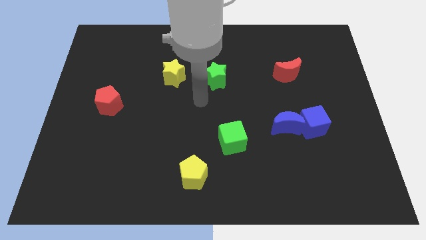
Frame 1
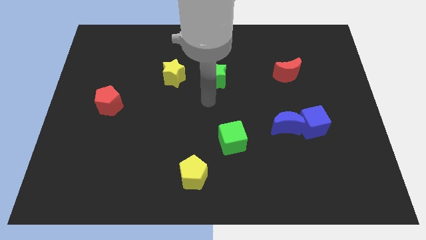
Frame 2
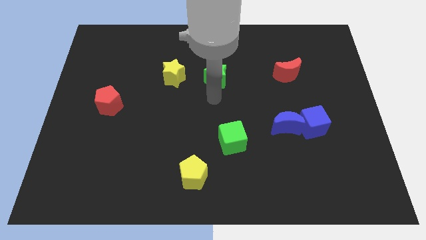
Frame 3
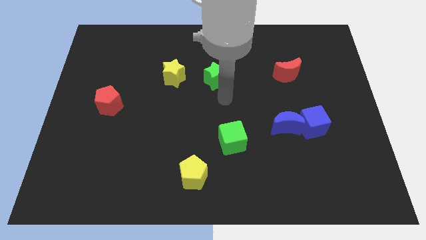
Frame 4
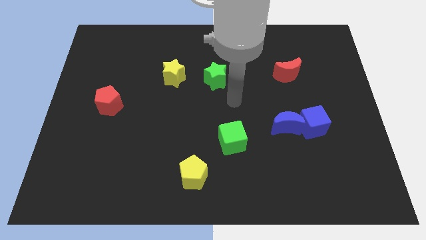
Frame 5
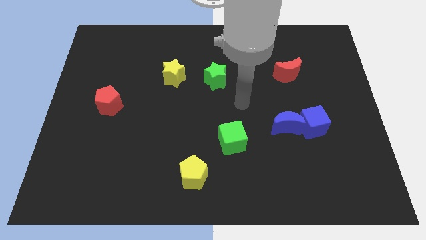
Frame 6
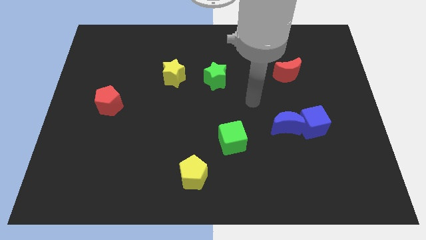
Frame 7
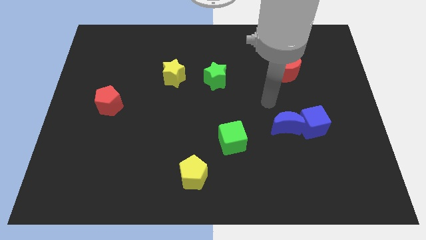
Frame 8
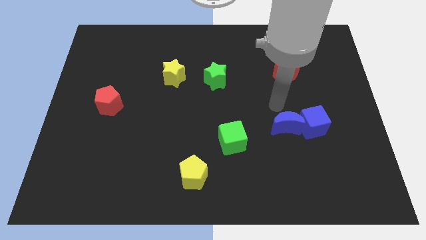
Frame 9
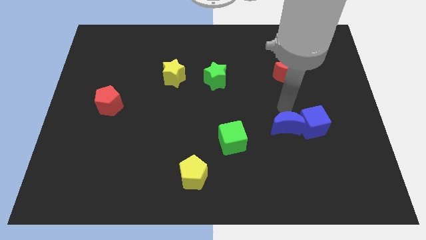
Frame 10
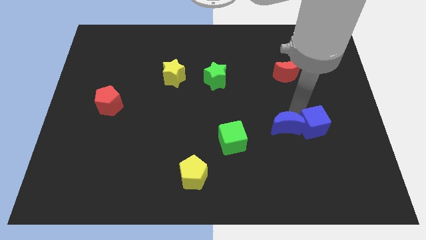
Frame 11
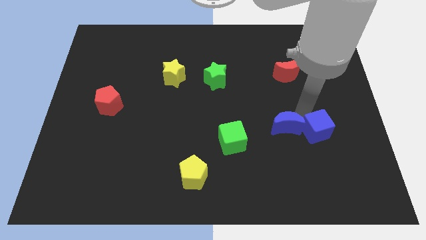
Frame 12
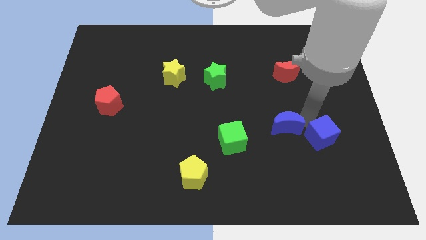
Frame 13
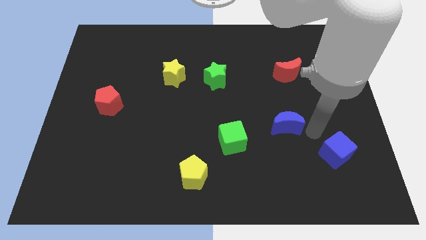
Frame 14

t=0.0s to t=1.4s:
pull the blue moon apart from the blue cube

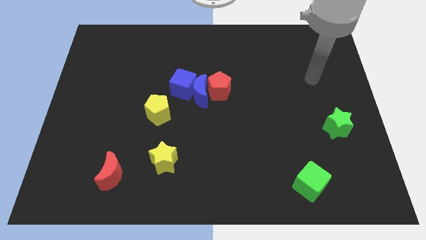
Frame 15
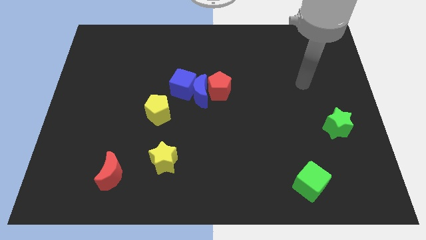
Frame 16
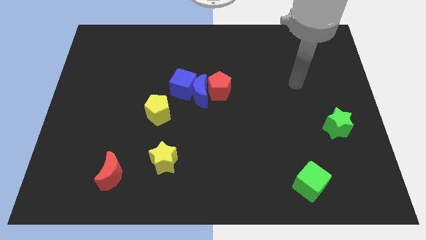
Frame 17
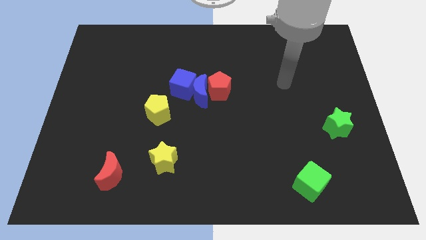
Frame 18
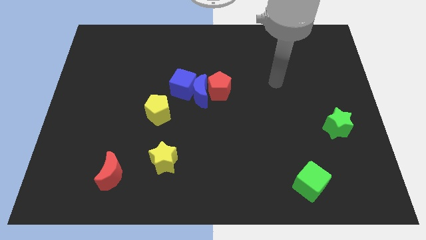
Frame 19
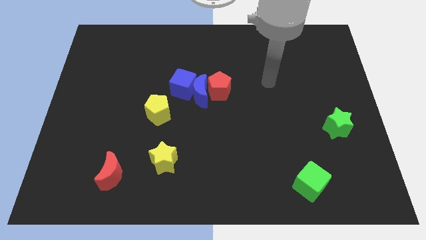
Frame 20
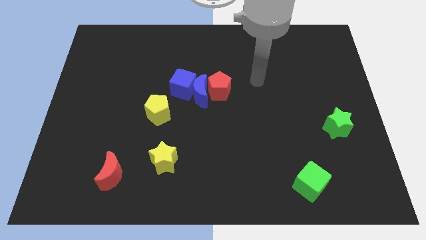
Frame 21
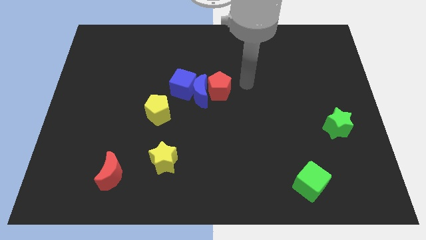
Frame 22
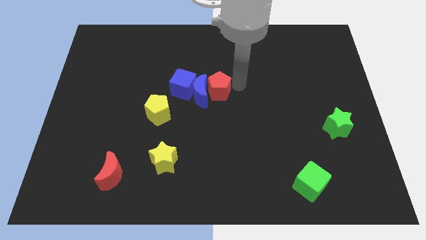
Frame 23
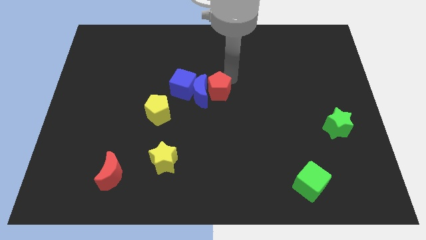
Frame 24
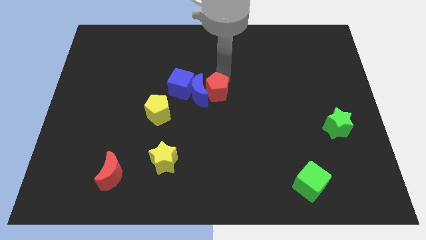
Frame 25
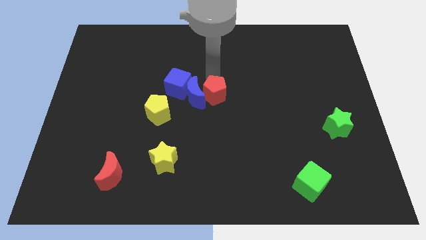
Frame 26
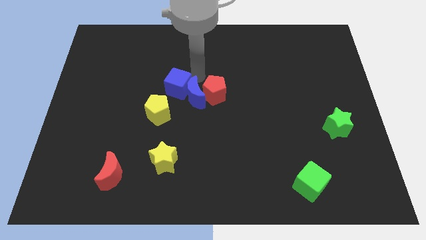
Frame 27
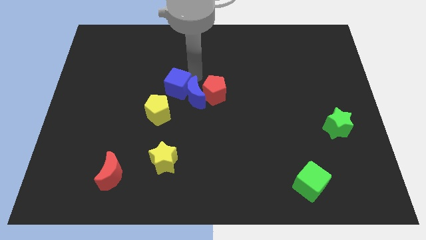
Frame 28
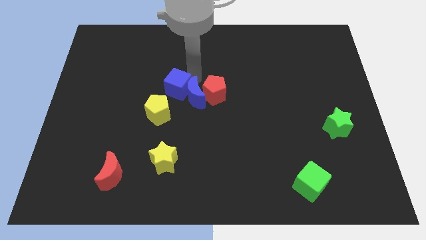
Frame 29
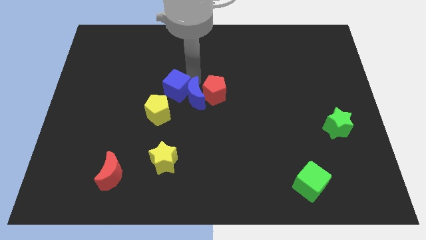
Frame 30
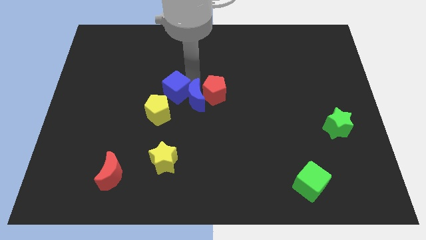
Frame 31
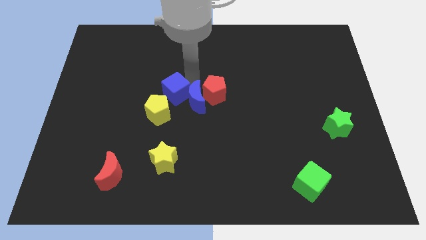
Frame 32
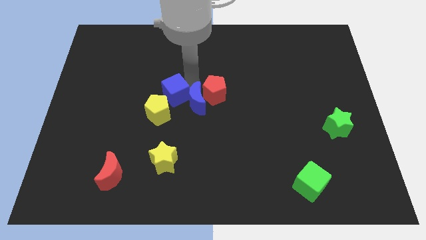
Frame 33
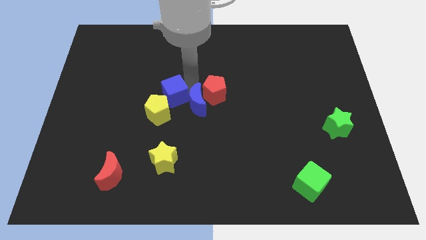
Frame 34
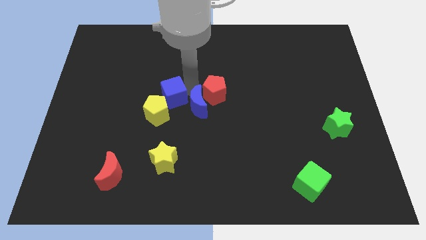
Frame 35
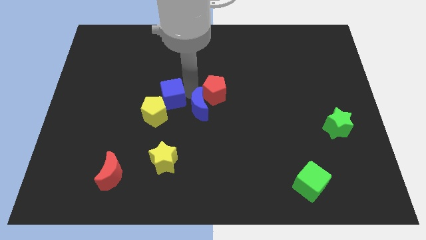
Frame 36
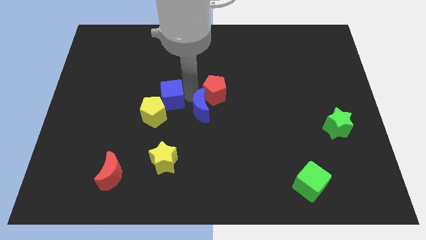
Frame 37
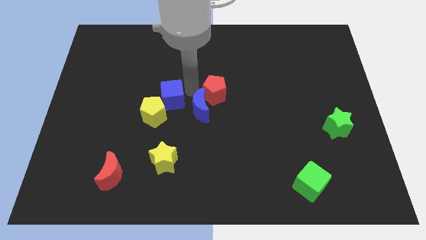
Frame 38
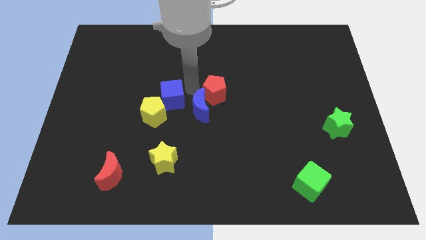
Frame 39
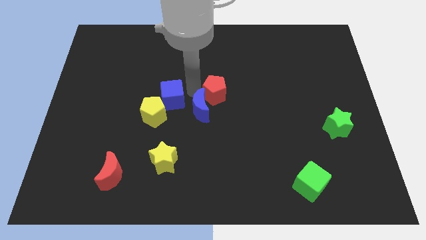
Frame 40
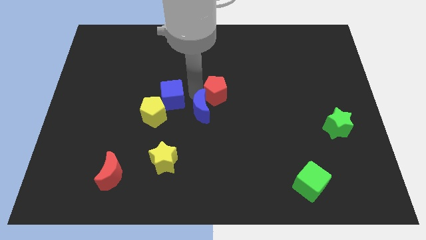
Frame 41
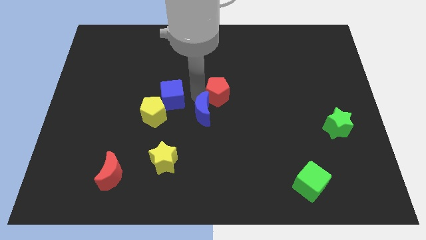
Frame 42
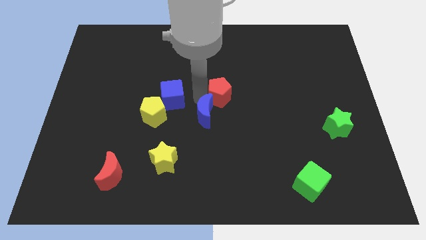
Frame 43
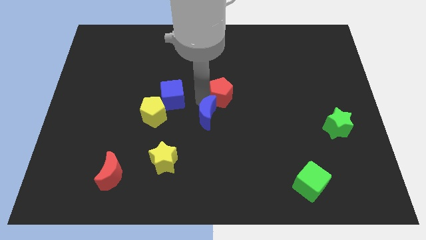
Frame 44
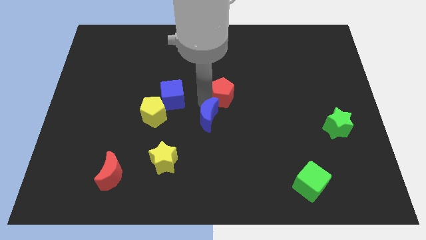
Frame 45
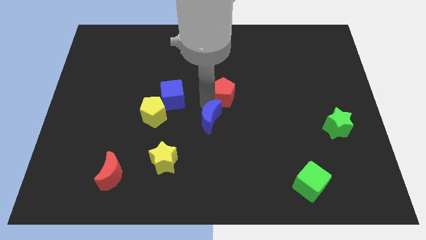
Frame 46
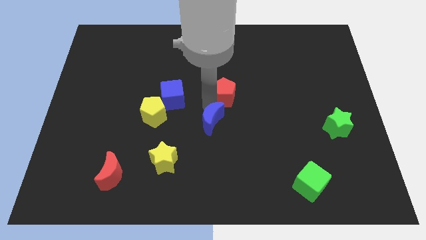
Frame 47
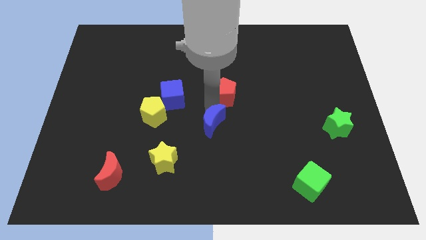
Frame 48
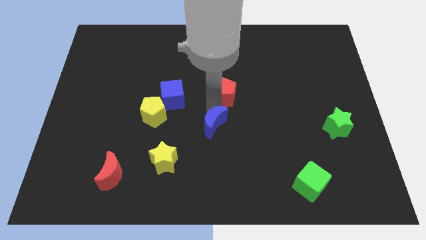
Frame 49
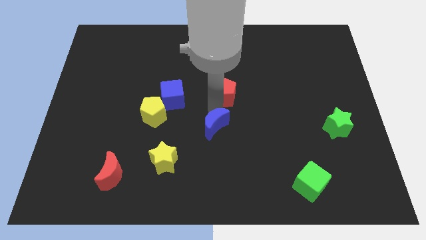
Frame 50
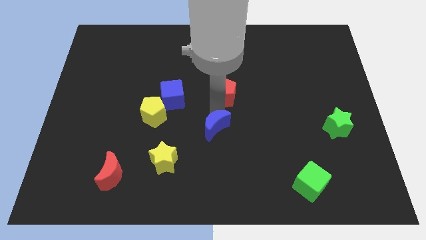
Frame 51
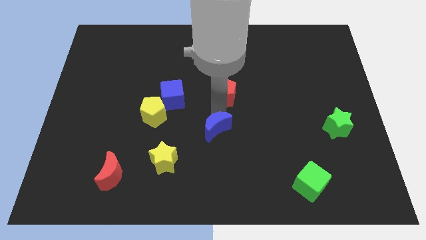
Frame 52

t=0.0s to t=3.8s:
separate the blue moon from the blue cube and red pentagon

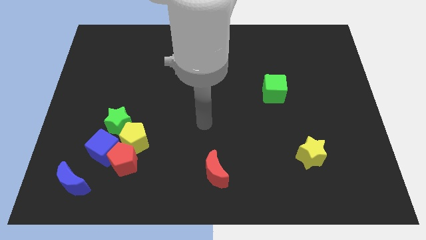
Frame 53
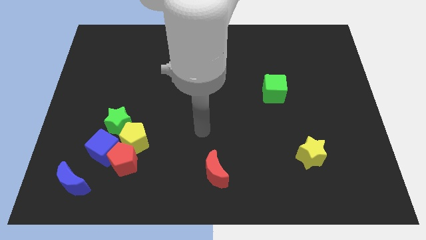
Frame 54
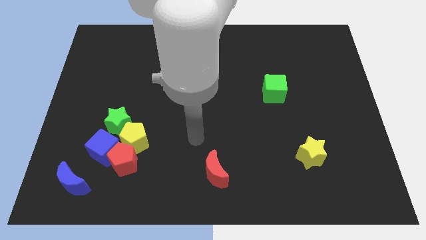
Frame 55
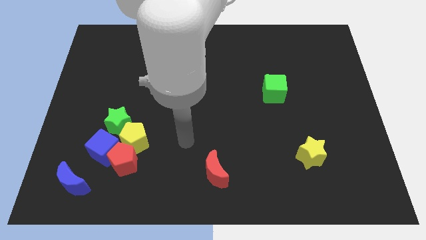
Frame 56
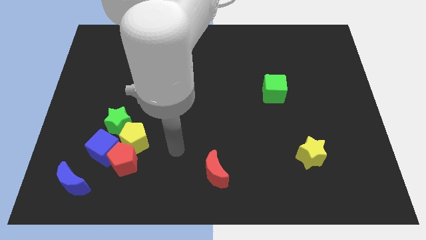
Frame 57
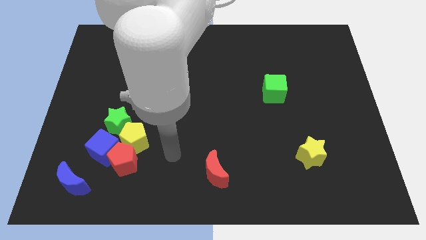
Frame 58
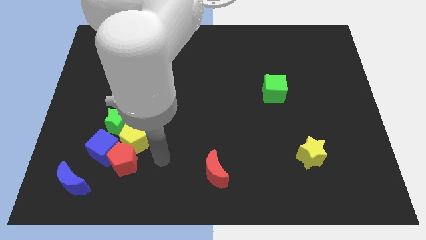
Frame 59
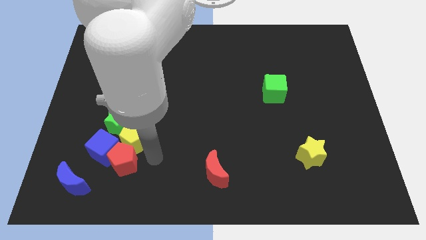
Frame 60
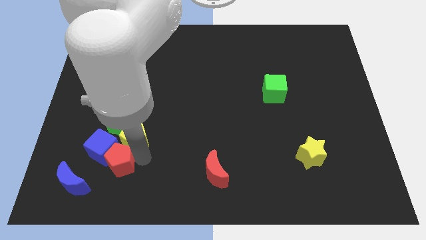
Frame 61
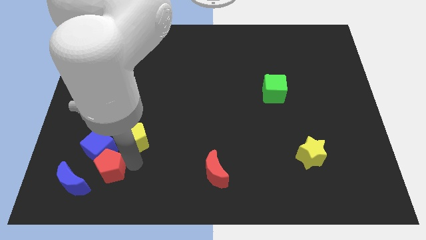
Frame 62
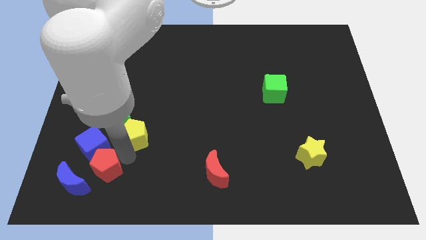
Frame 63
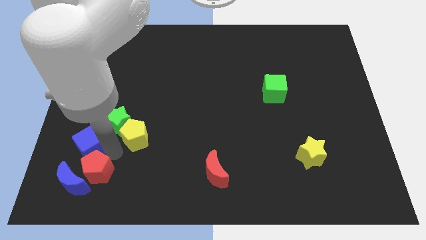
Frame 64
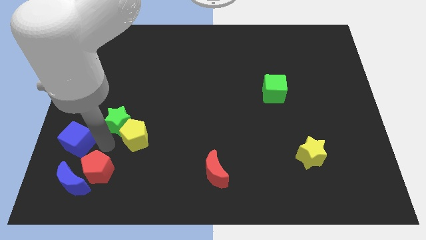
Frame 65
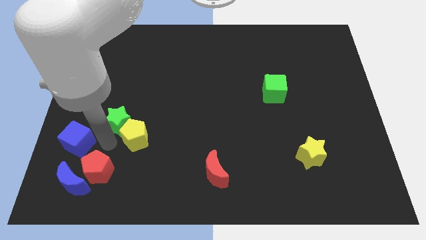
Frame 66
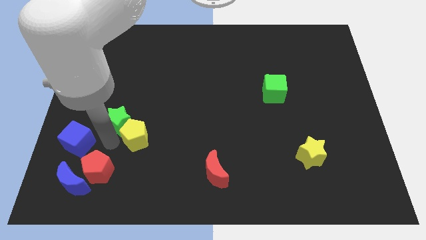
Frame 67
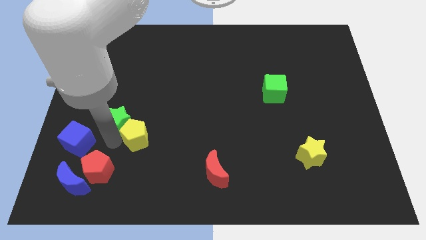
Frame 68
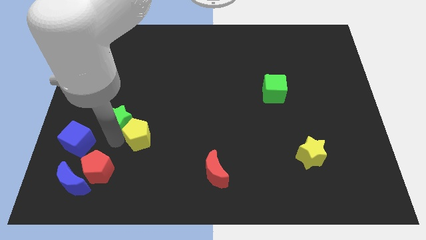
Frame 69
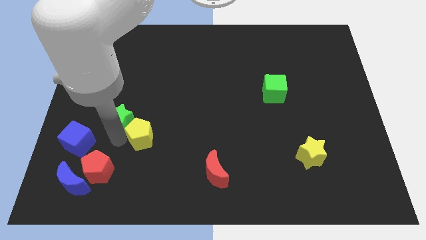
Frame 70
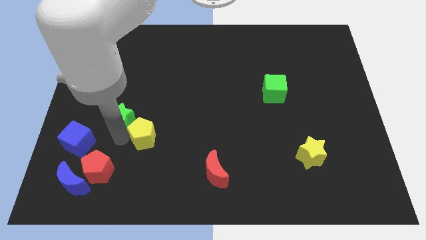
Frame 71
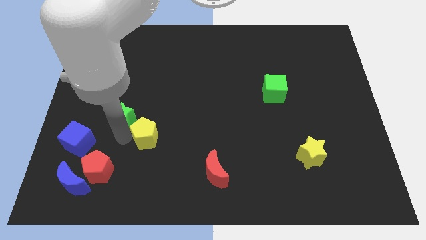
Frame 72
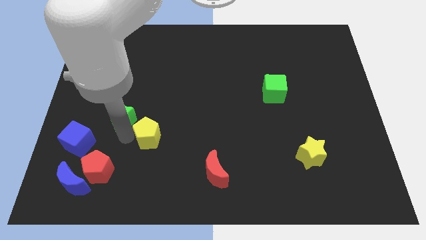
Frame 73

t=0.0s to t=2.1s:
separate the yellow pentagon from the clump

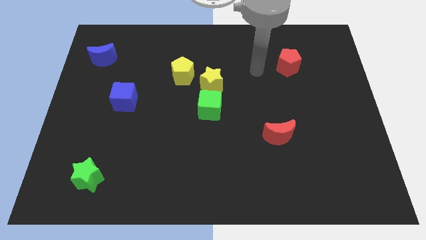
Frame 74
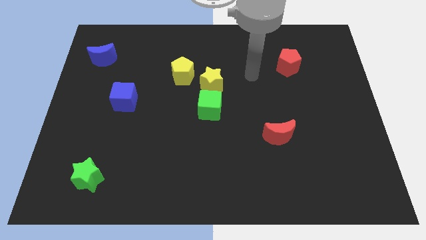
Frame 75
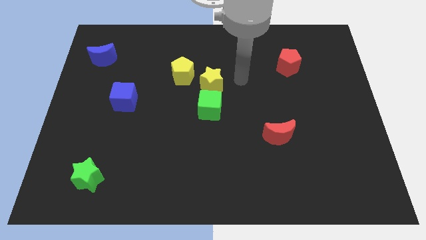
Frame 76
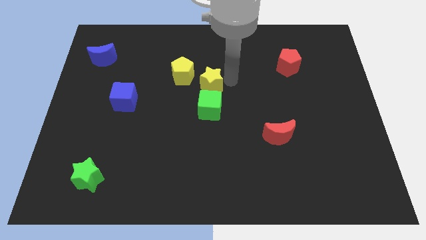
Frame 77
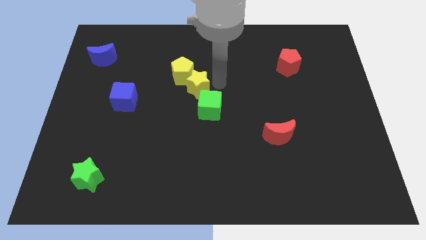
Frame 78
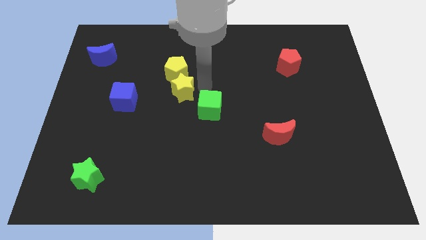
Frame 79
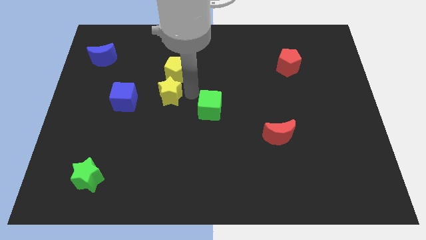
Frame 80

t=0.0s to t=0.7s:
move the green cube away from the yellow star

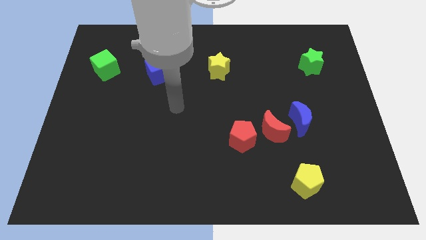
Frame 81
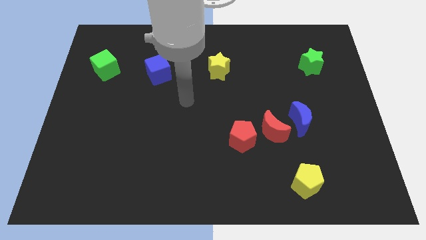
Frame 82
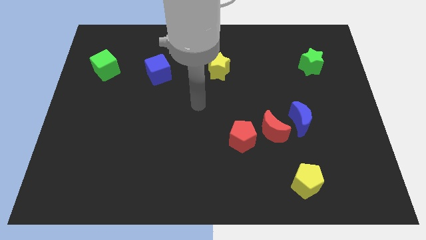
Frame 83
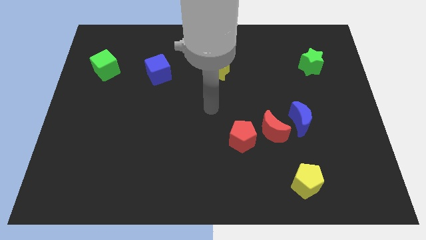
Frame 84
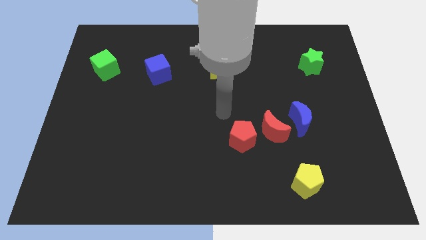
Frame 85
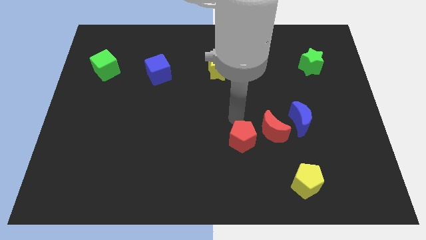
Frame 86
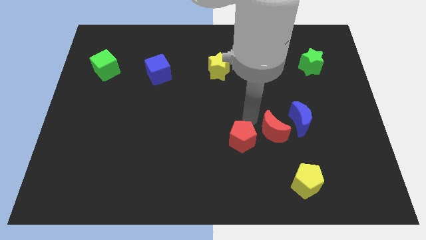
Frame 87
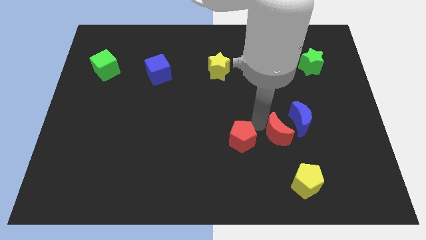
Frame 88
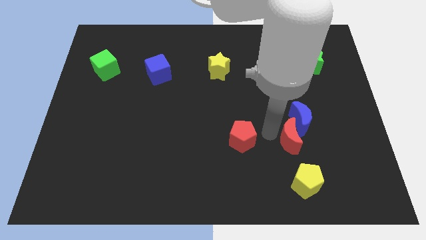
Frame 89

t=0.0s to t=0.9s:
move the red pentagon away from the red moon

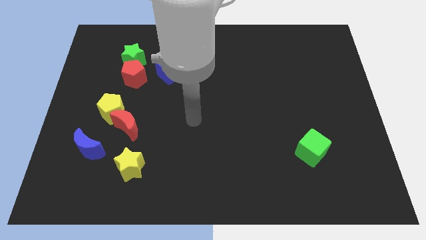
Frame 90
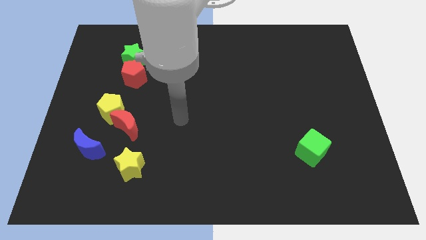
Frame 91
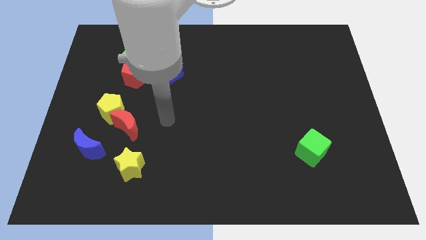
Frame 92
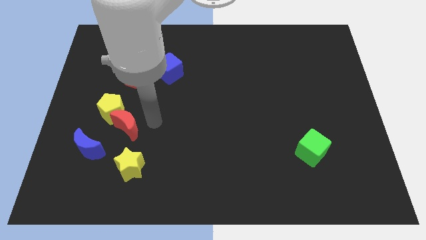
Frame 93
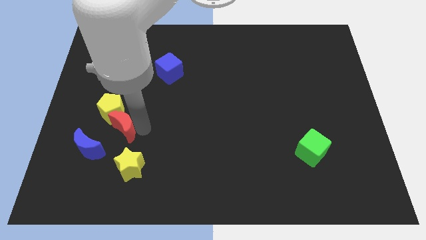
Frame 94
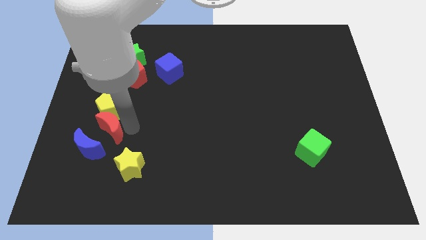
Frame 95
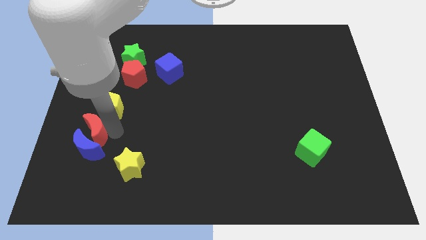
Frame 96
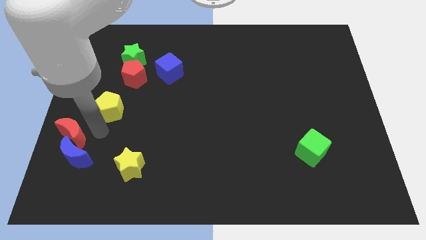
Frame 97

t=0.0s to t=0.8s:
move the yellow pentagon away from the red moon
